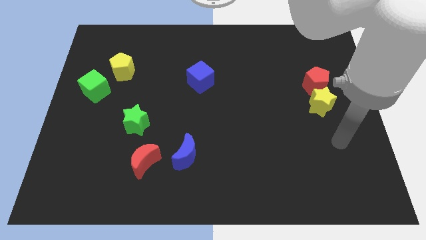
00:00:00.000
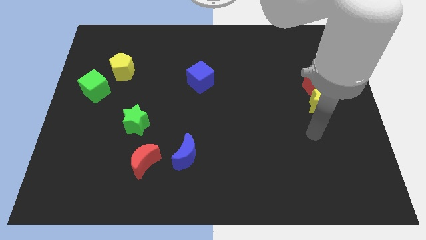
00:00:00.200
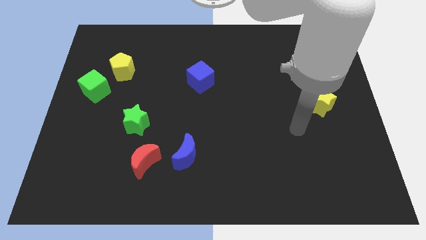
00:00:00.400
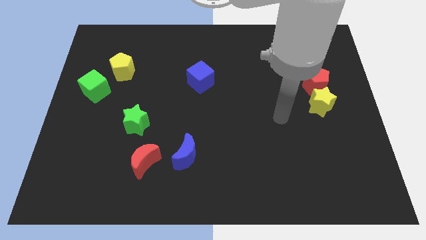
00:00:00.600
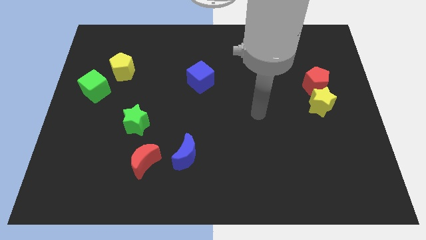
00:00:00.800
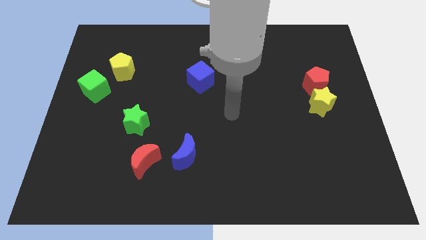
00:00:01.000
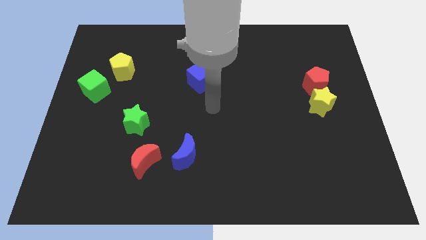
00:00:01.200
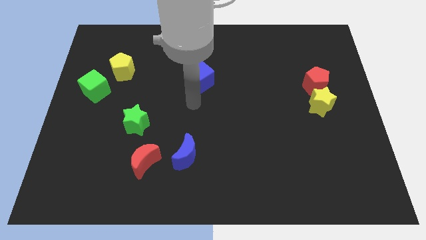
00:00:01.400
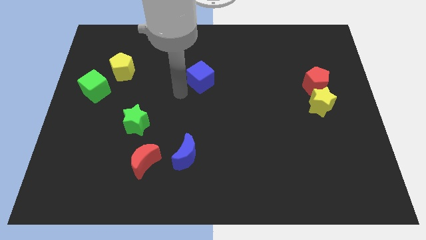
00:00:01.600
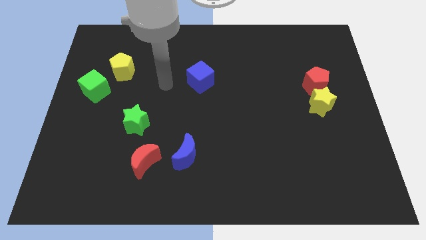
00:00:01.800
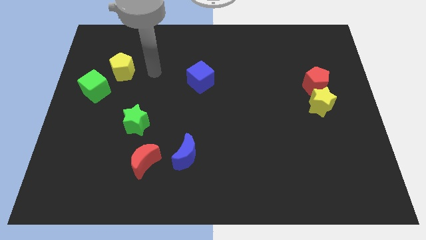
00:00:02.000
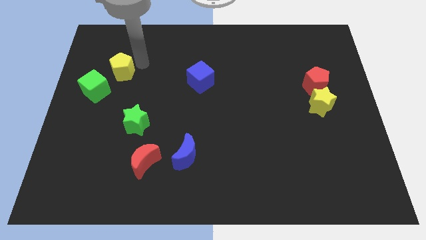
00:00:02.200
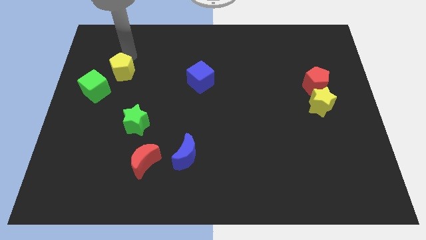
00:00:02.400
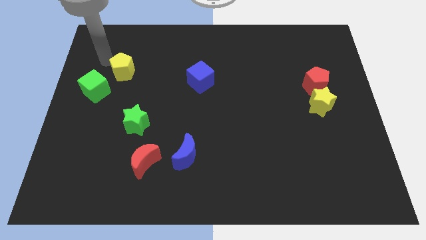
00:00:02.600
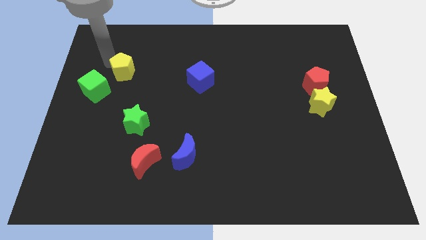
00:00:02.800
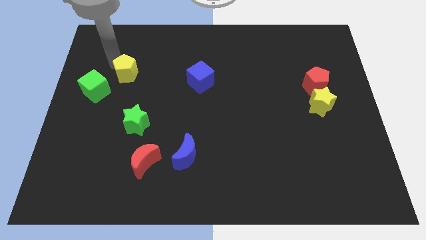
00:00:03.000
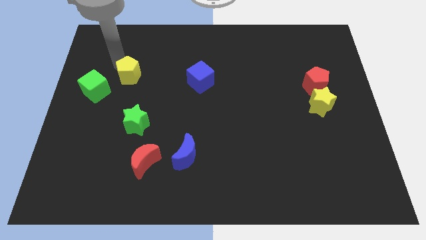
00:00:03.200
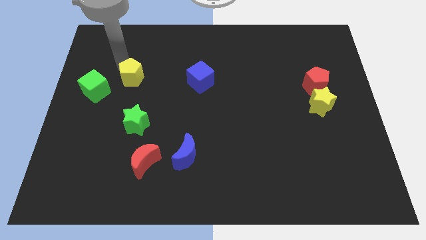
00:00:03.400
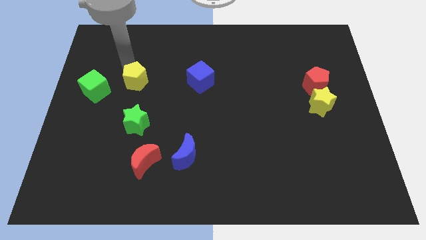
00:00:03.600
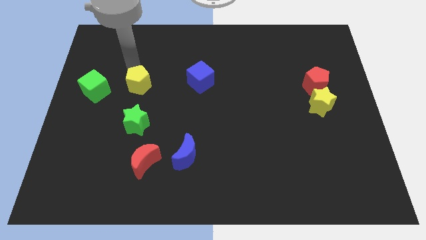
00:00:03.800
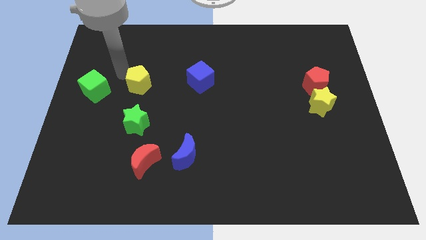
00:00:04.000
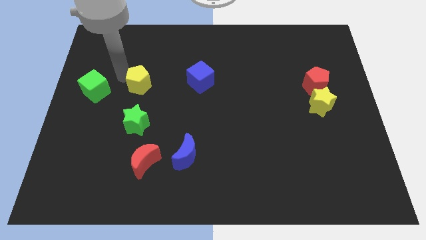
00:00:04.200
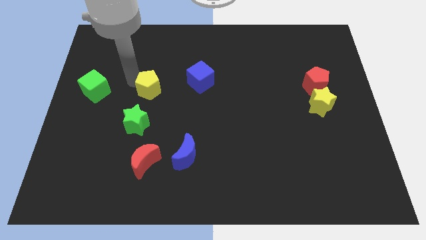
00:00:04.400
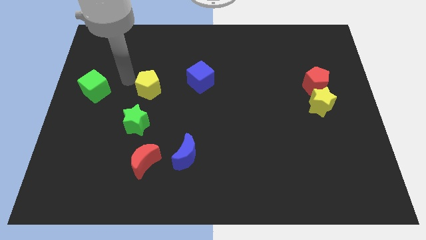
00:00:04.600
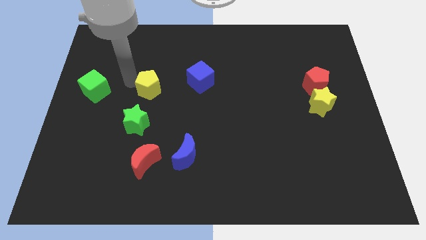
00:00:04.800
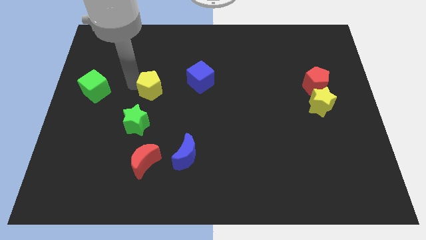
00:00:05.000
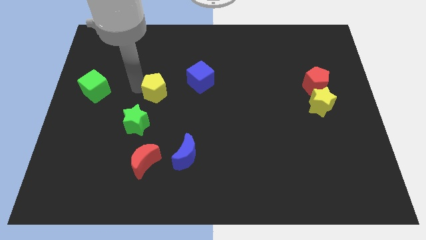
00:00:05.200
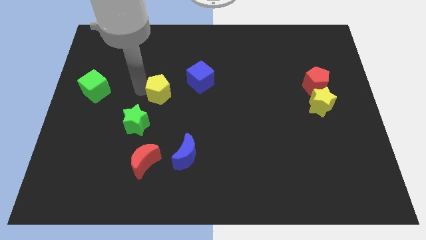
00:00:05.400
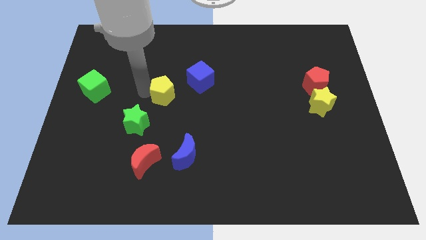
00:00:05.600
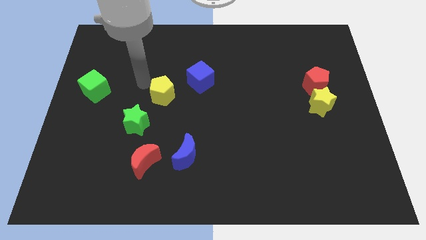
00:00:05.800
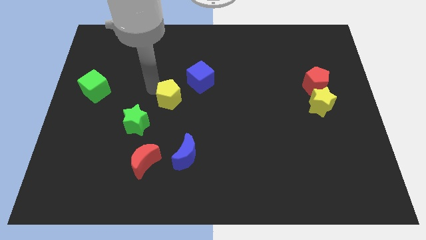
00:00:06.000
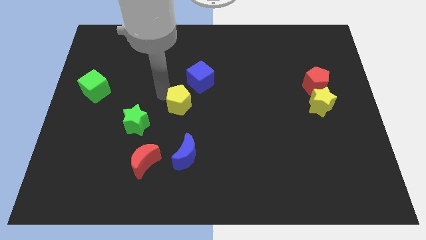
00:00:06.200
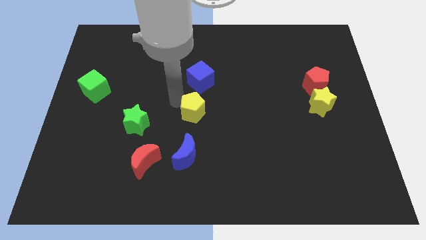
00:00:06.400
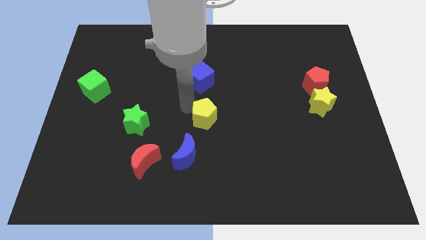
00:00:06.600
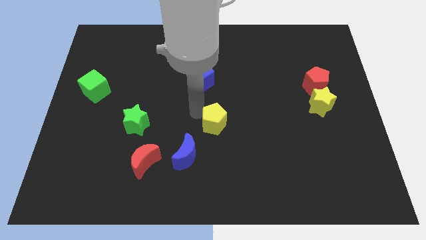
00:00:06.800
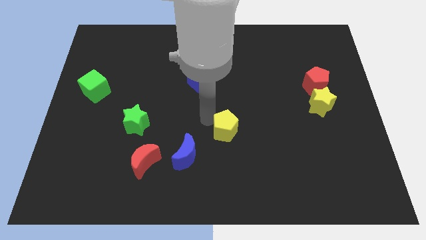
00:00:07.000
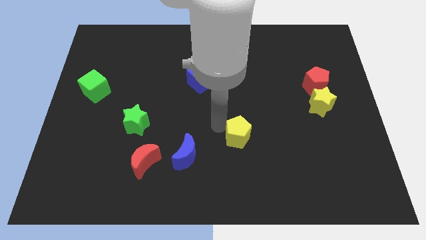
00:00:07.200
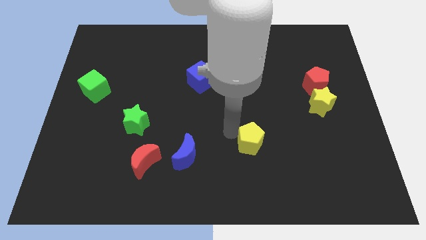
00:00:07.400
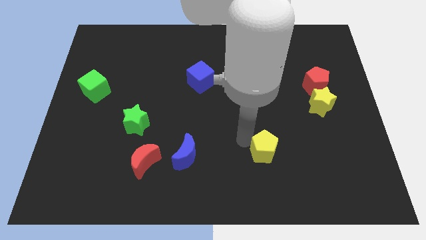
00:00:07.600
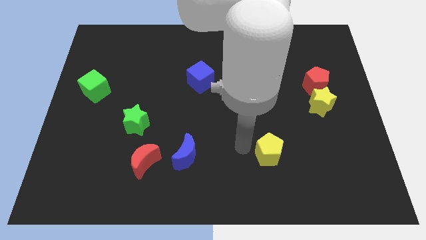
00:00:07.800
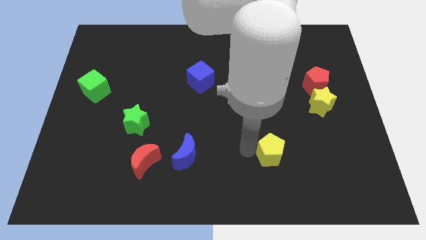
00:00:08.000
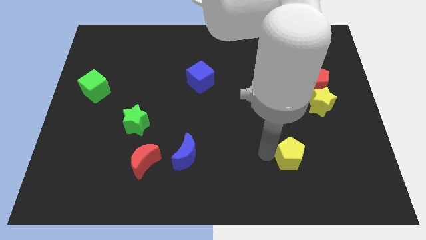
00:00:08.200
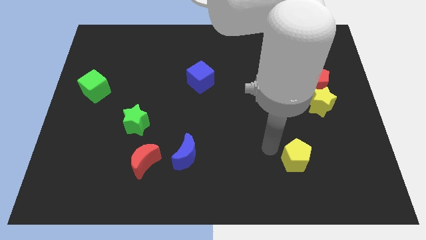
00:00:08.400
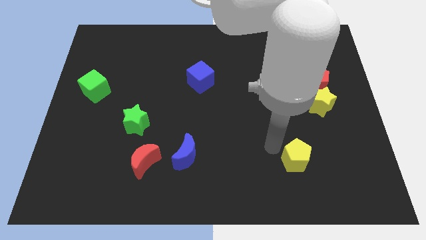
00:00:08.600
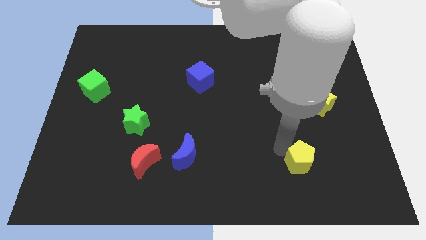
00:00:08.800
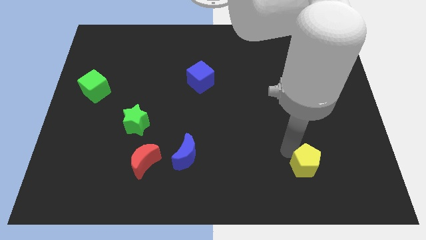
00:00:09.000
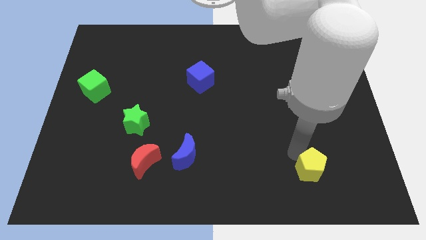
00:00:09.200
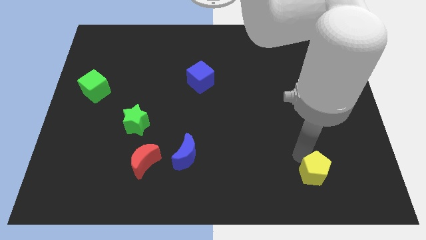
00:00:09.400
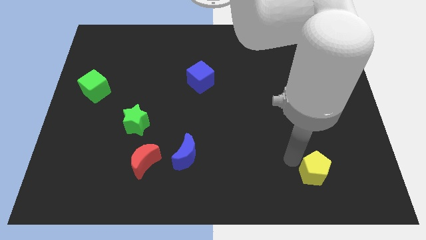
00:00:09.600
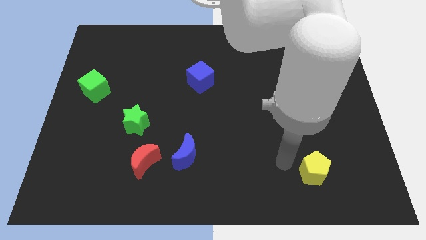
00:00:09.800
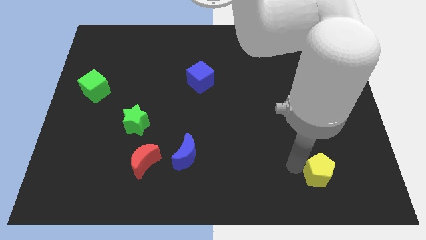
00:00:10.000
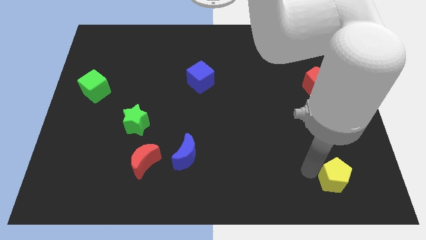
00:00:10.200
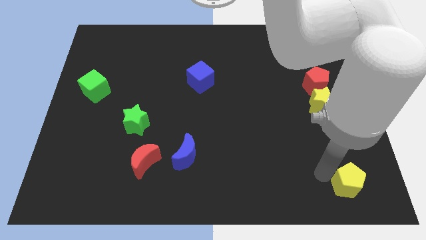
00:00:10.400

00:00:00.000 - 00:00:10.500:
put the yellow pentagon to the lower right corner

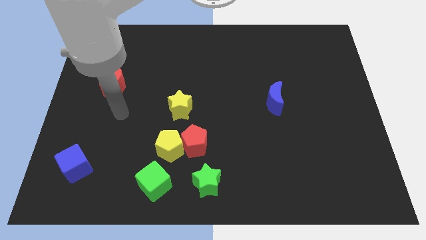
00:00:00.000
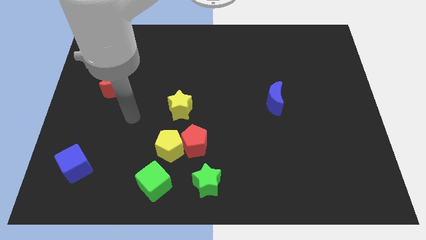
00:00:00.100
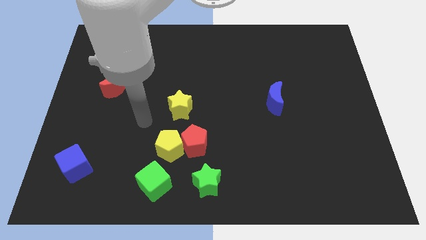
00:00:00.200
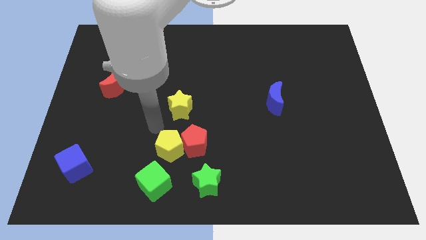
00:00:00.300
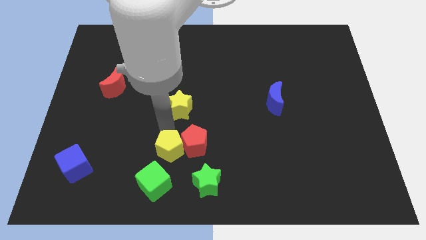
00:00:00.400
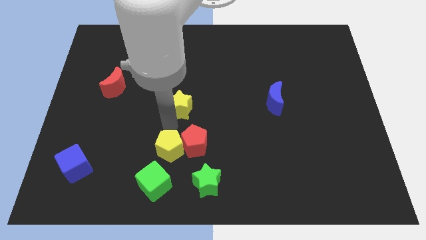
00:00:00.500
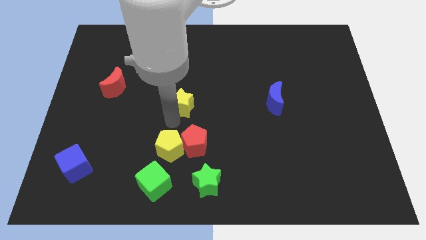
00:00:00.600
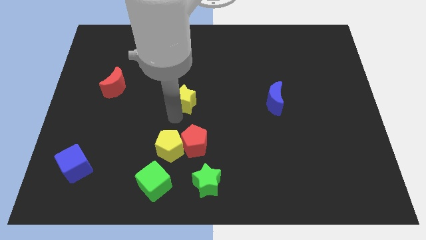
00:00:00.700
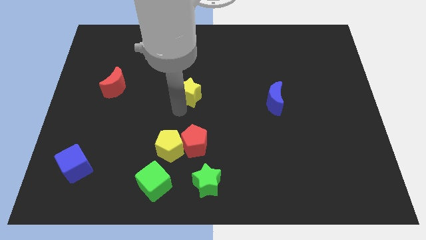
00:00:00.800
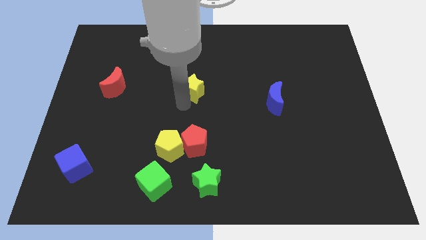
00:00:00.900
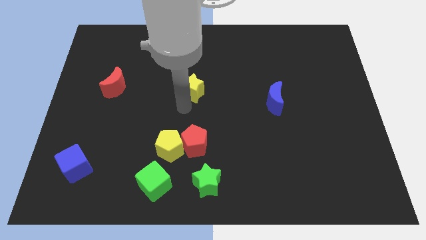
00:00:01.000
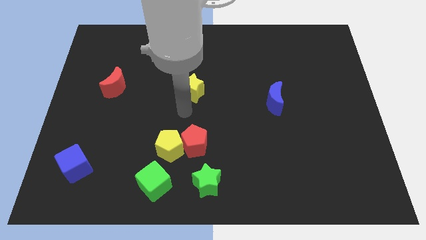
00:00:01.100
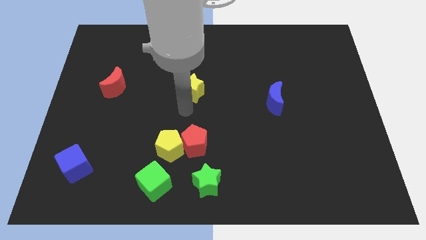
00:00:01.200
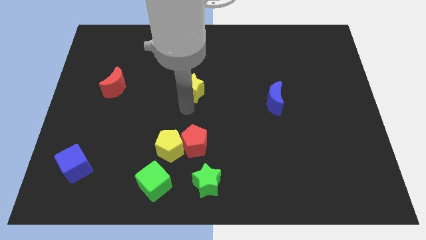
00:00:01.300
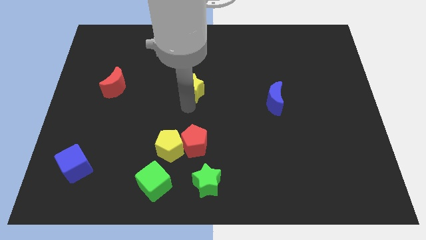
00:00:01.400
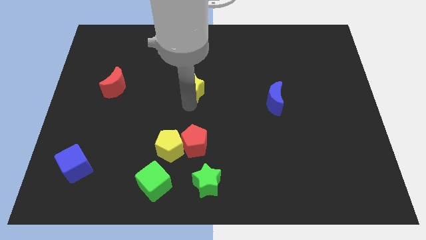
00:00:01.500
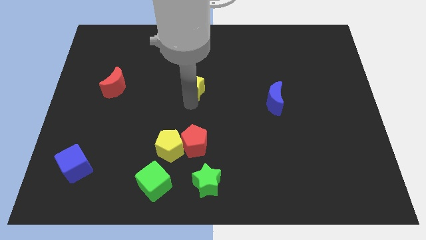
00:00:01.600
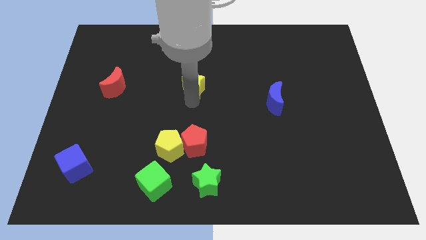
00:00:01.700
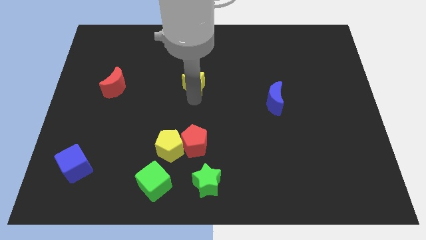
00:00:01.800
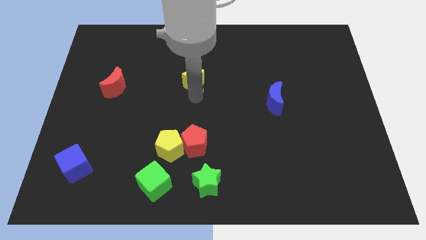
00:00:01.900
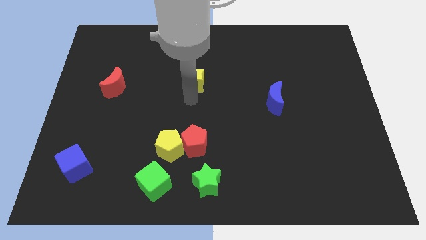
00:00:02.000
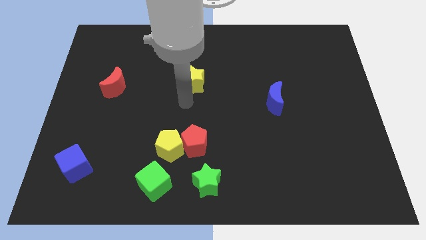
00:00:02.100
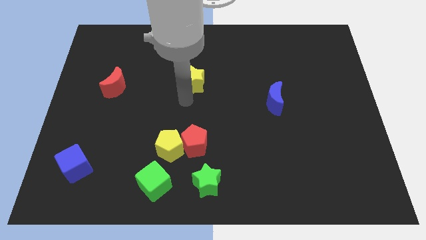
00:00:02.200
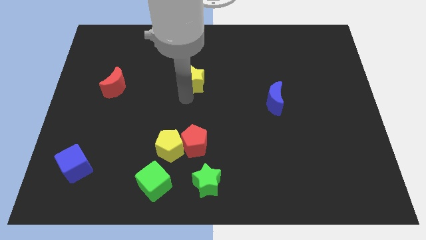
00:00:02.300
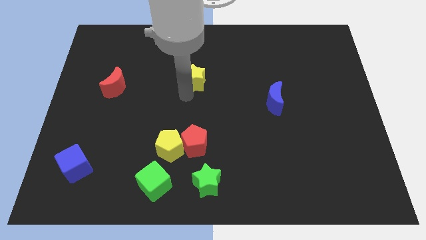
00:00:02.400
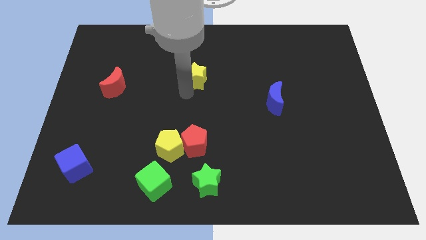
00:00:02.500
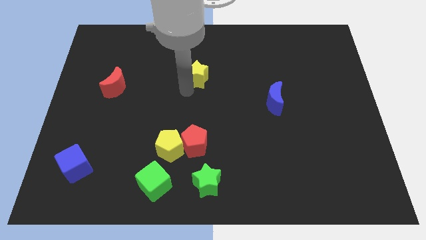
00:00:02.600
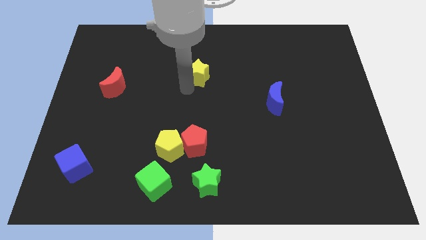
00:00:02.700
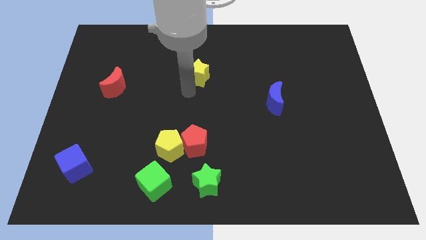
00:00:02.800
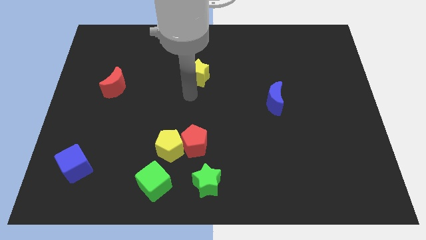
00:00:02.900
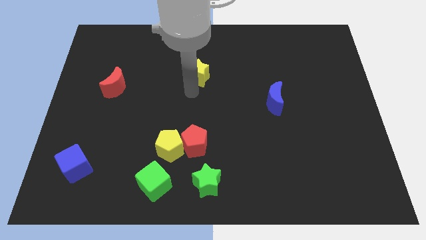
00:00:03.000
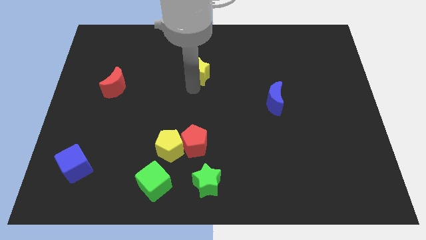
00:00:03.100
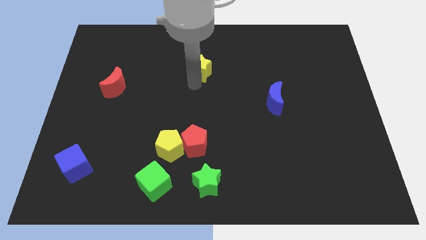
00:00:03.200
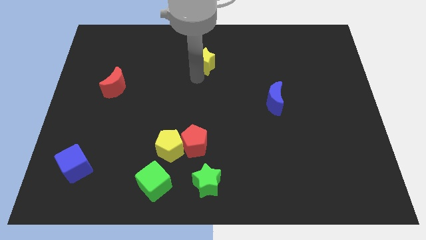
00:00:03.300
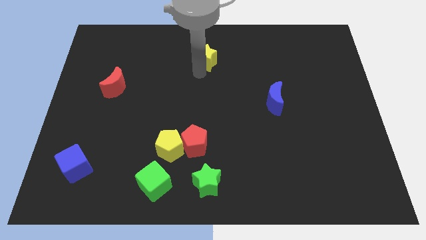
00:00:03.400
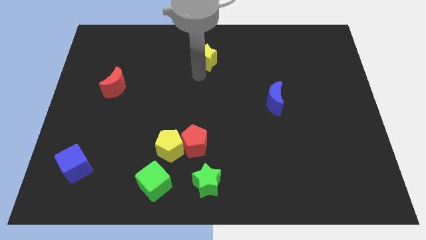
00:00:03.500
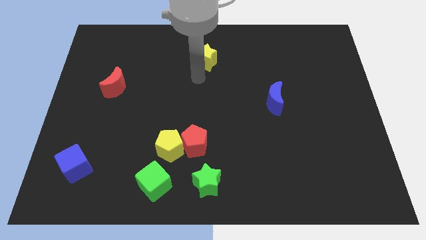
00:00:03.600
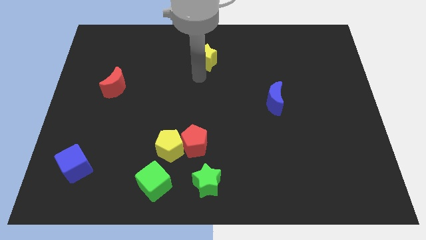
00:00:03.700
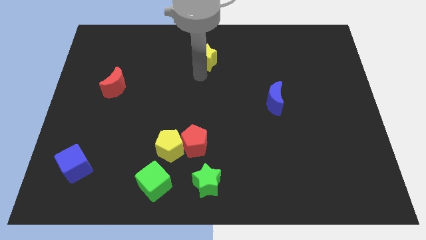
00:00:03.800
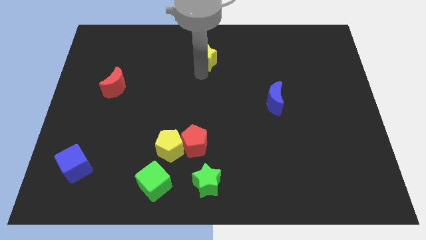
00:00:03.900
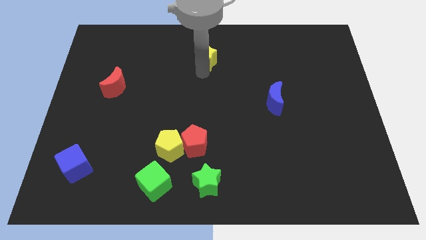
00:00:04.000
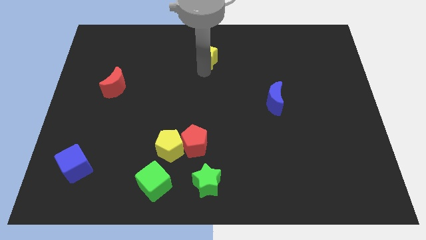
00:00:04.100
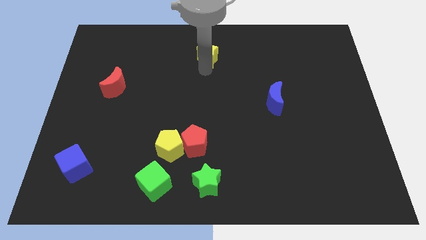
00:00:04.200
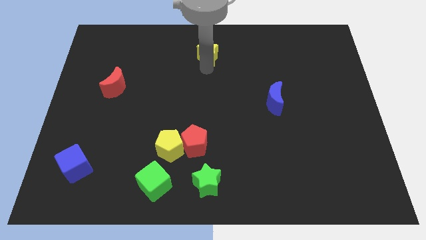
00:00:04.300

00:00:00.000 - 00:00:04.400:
slide the yellow star to the top
